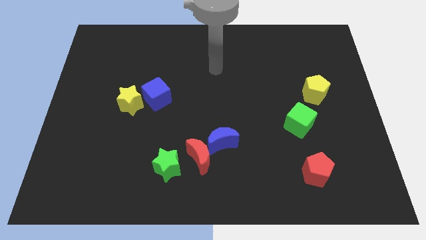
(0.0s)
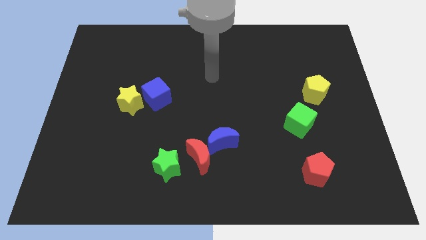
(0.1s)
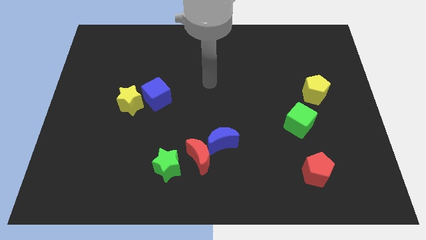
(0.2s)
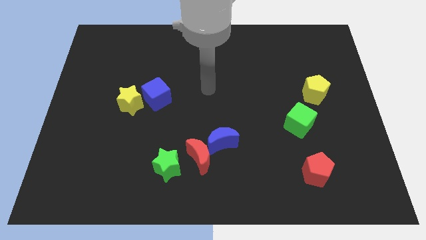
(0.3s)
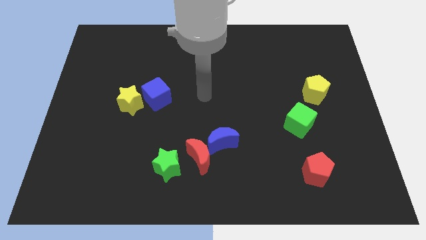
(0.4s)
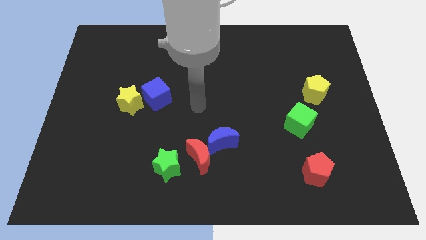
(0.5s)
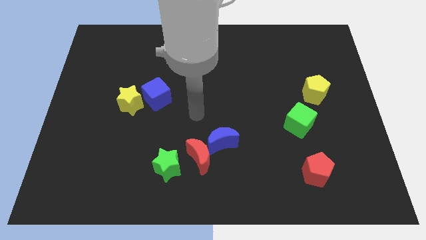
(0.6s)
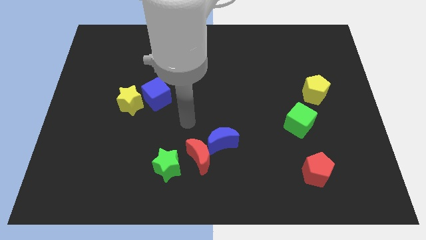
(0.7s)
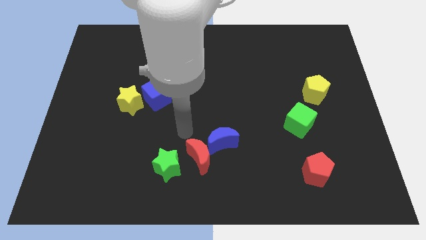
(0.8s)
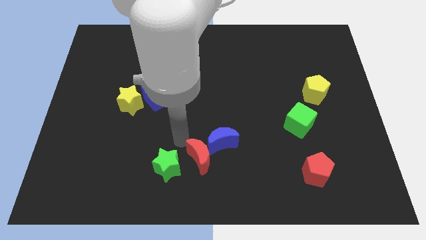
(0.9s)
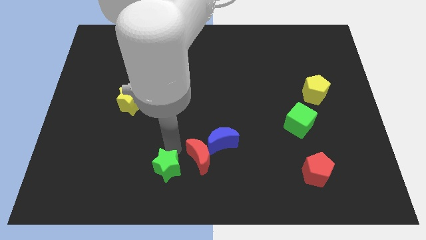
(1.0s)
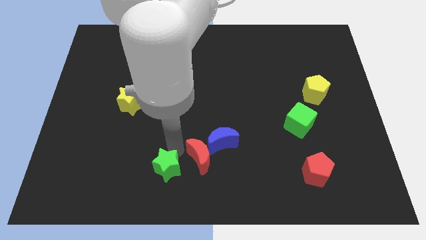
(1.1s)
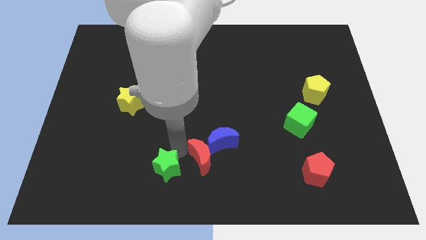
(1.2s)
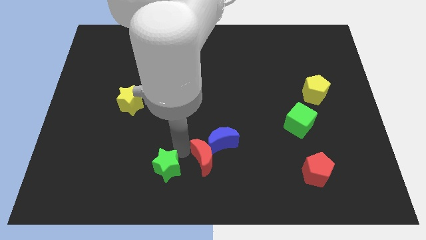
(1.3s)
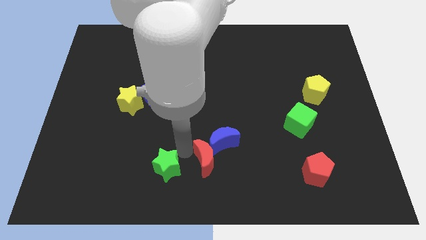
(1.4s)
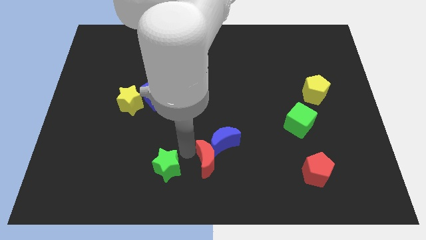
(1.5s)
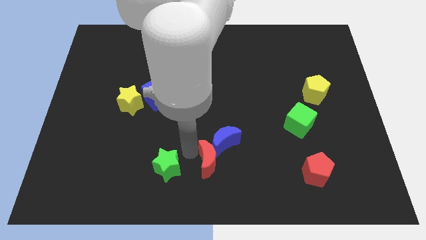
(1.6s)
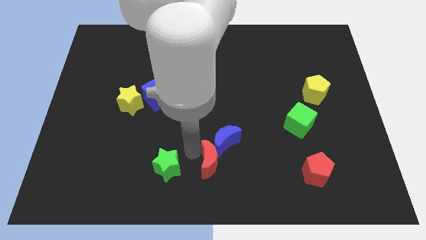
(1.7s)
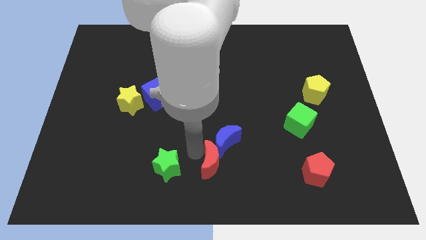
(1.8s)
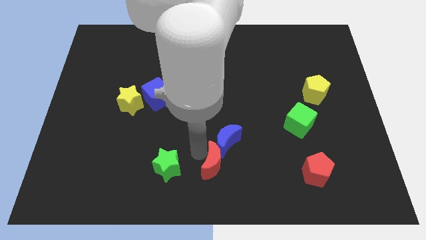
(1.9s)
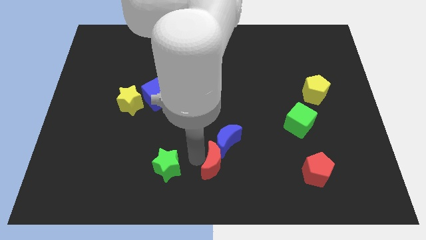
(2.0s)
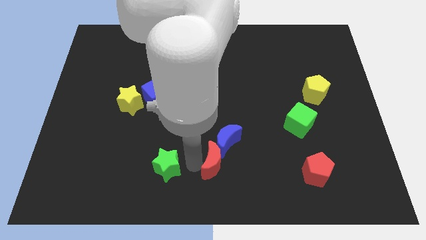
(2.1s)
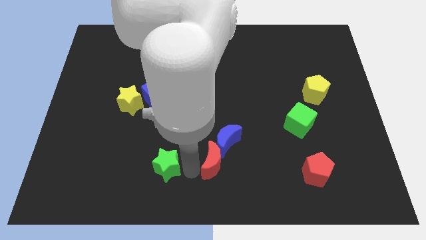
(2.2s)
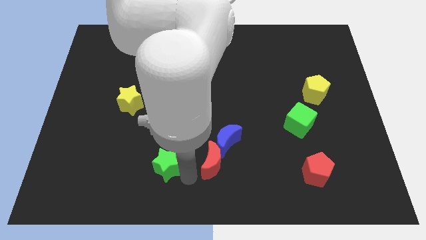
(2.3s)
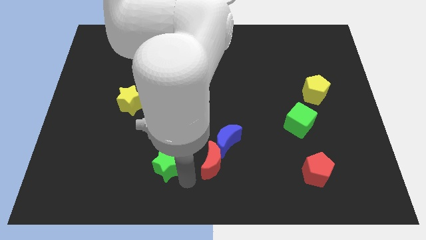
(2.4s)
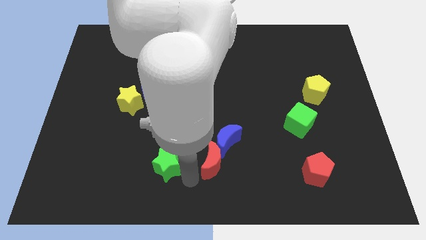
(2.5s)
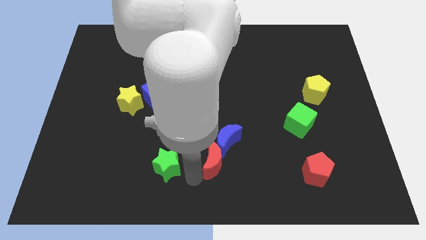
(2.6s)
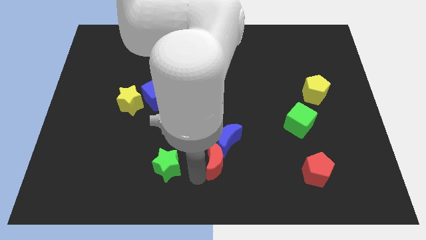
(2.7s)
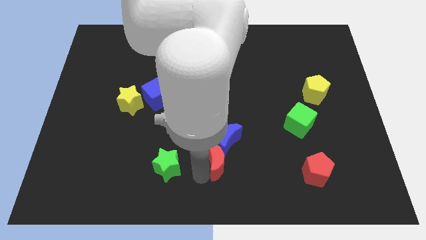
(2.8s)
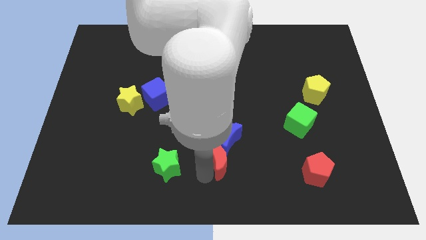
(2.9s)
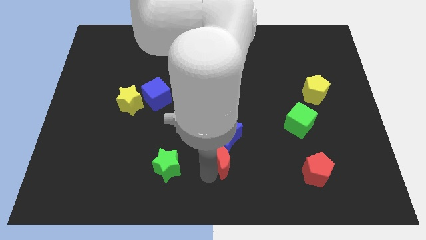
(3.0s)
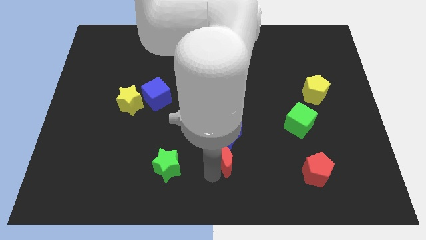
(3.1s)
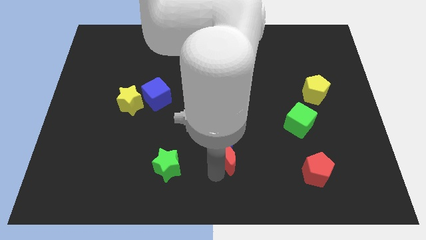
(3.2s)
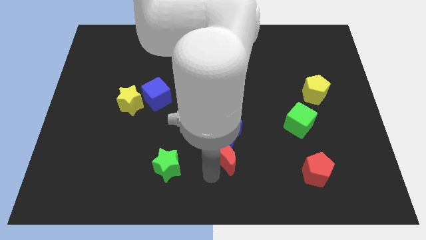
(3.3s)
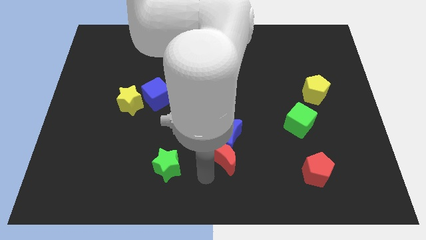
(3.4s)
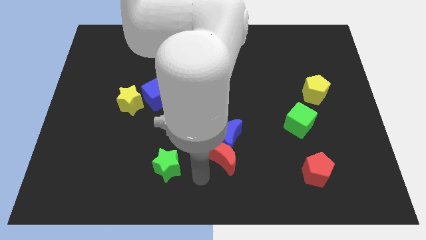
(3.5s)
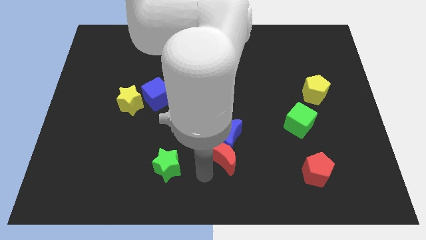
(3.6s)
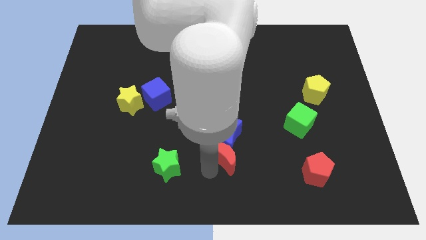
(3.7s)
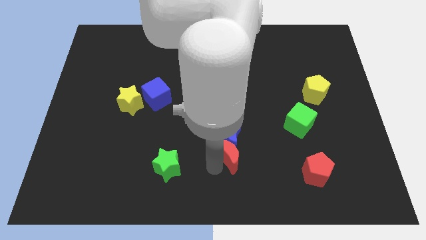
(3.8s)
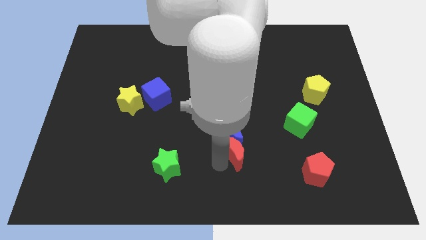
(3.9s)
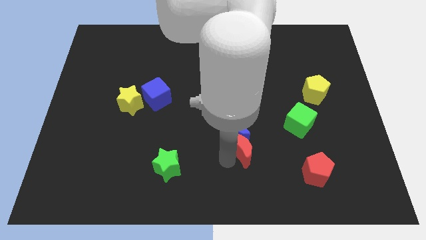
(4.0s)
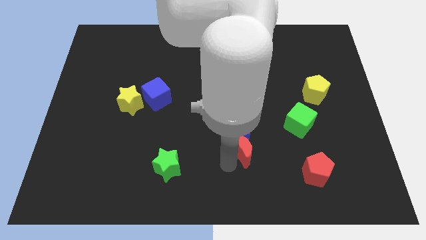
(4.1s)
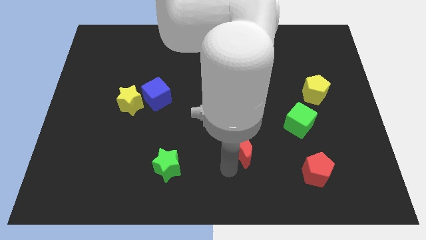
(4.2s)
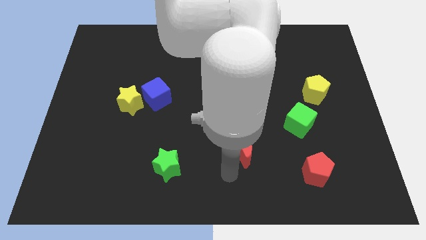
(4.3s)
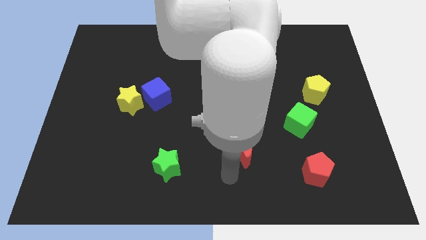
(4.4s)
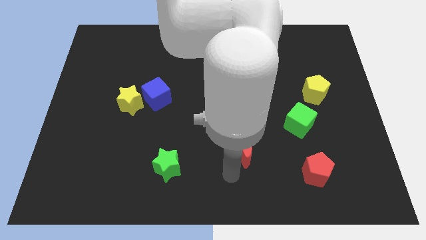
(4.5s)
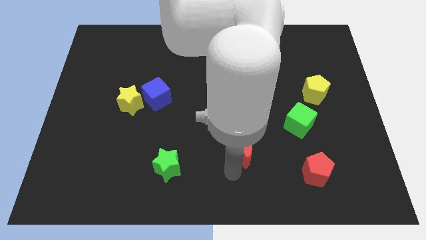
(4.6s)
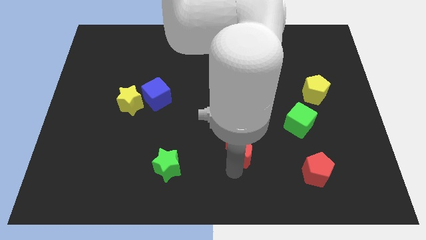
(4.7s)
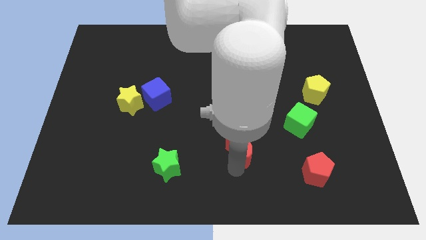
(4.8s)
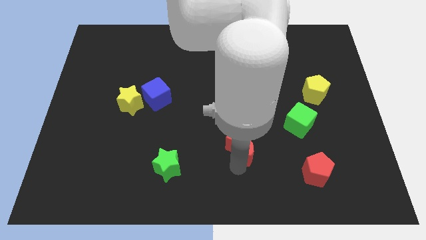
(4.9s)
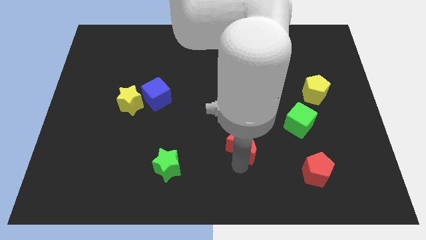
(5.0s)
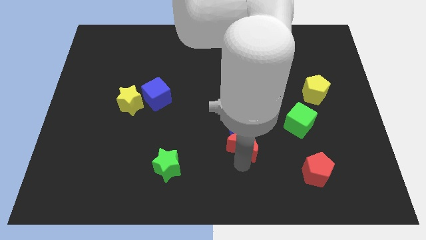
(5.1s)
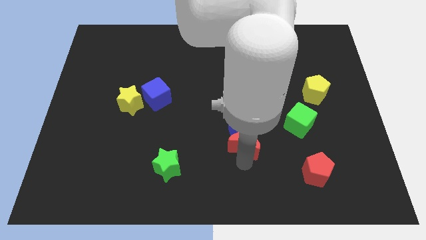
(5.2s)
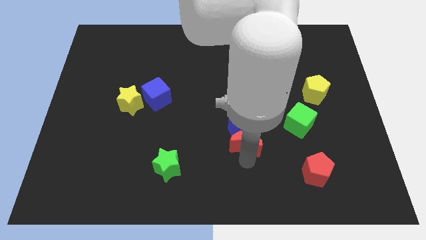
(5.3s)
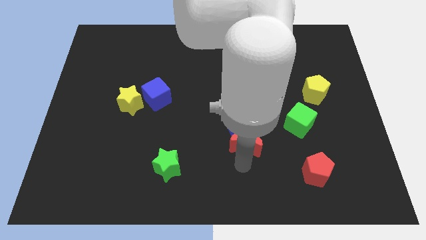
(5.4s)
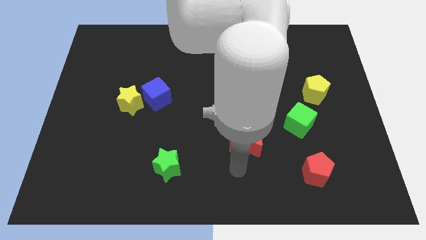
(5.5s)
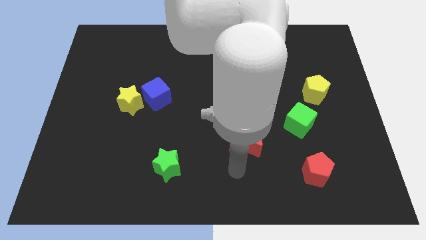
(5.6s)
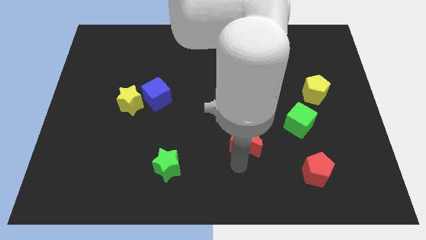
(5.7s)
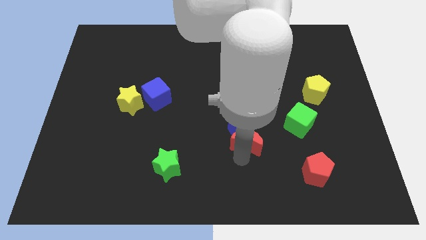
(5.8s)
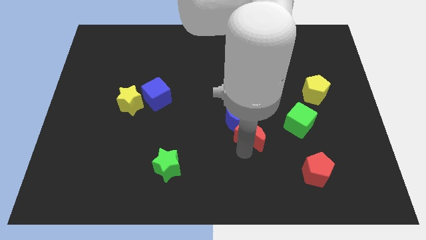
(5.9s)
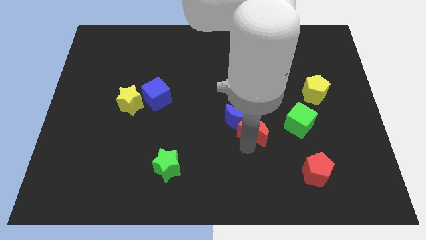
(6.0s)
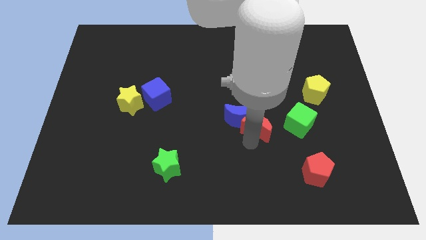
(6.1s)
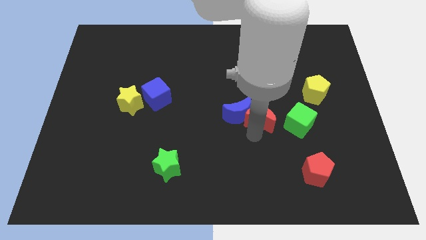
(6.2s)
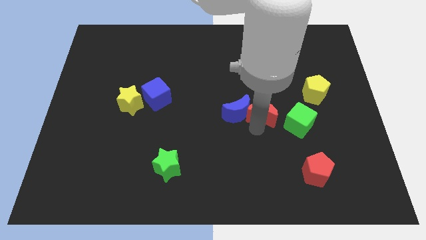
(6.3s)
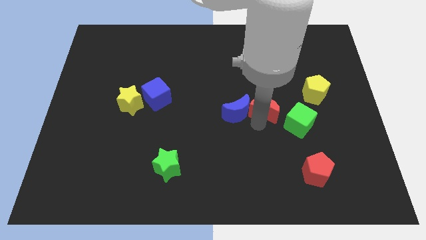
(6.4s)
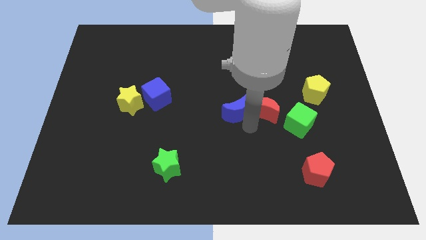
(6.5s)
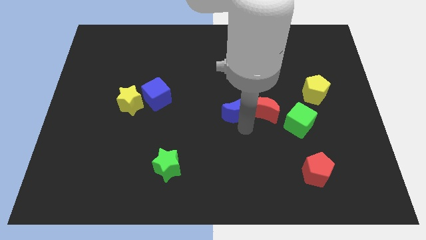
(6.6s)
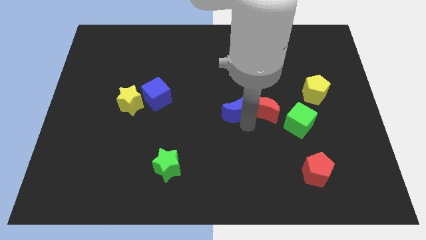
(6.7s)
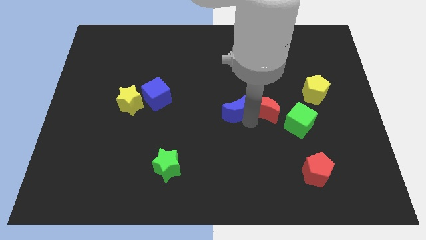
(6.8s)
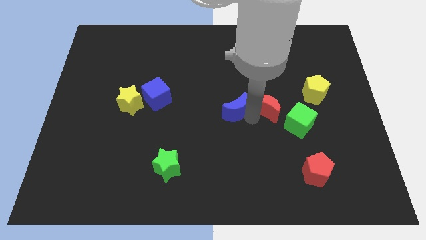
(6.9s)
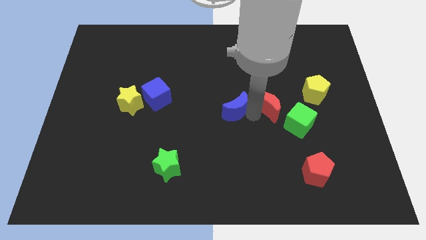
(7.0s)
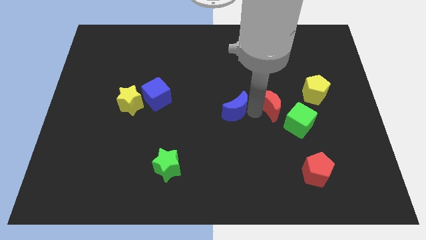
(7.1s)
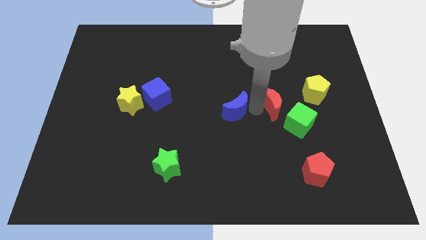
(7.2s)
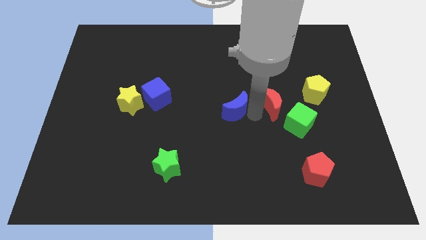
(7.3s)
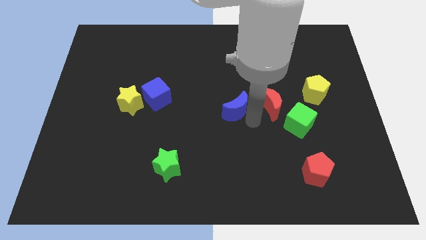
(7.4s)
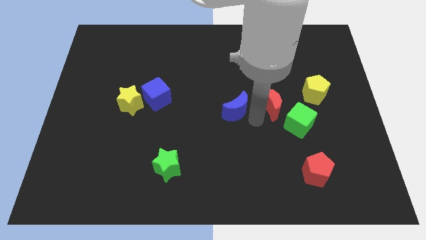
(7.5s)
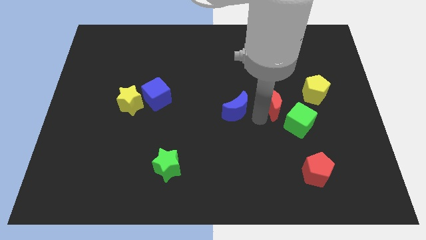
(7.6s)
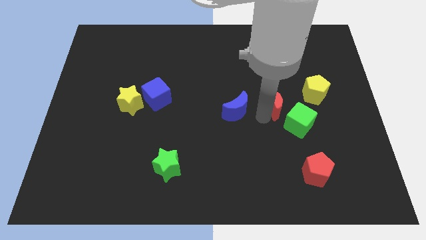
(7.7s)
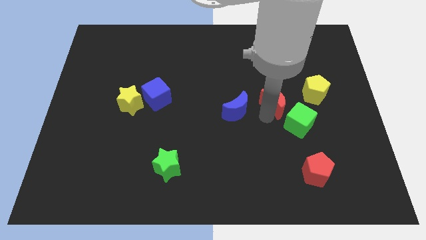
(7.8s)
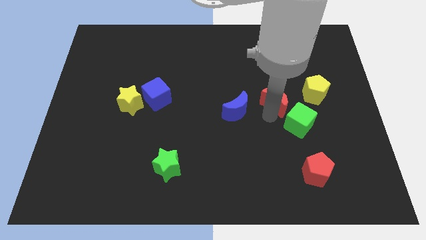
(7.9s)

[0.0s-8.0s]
slide the red moon above the green cube
